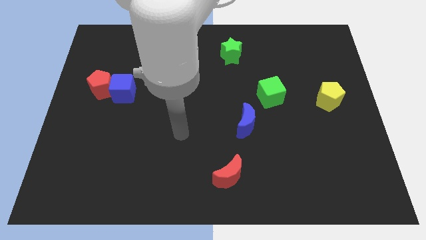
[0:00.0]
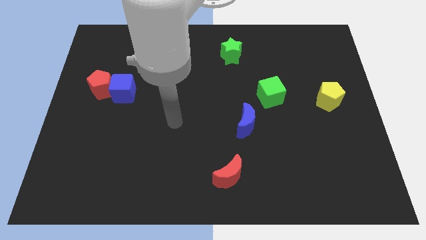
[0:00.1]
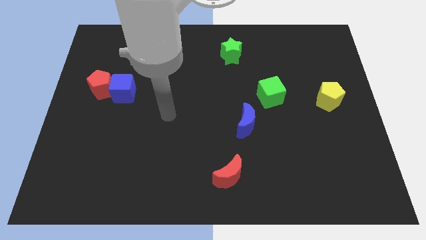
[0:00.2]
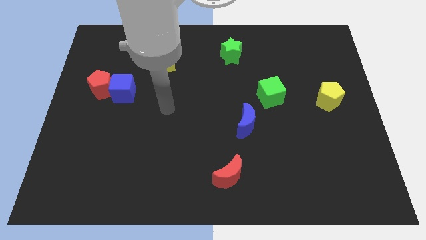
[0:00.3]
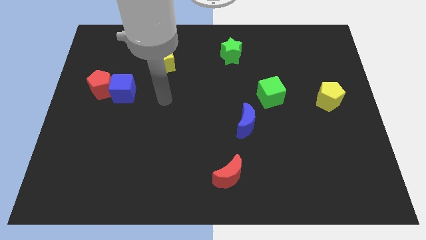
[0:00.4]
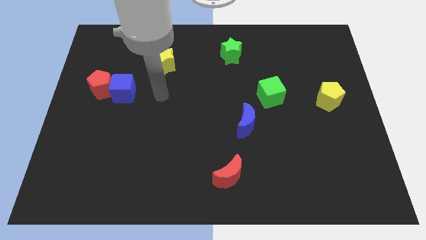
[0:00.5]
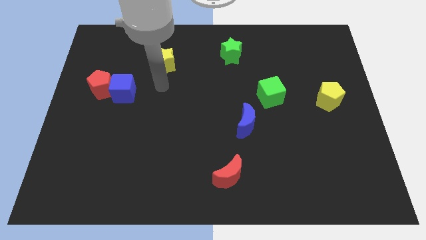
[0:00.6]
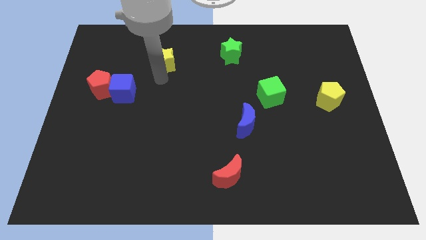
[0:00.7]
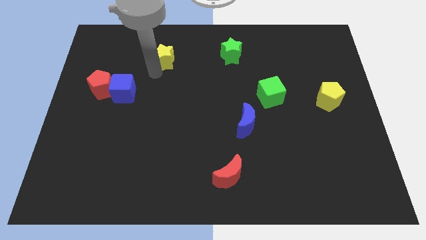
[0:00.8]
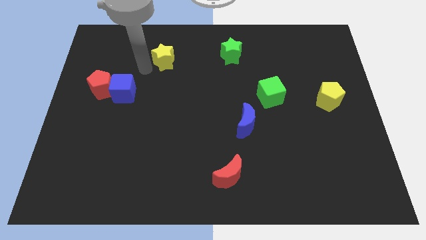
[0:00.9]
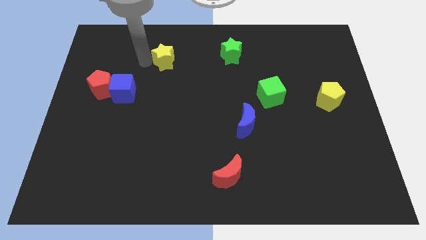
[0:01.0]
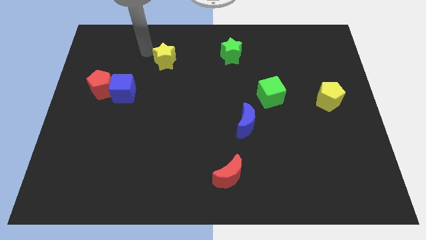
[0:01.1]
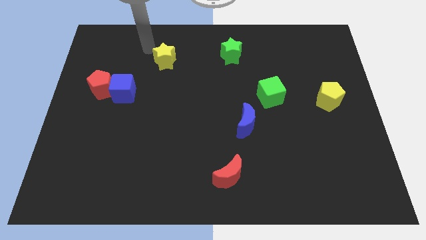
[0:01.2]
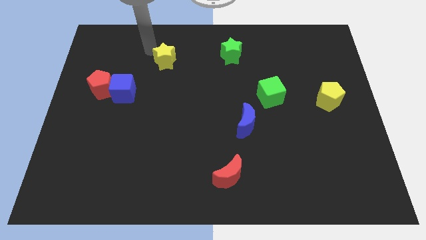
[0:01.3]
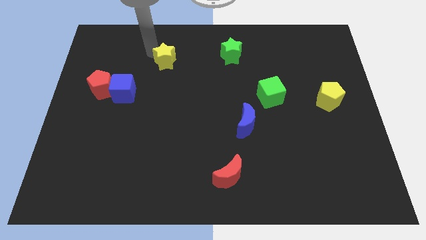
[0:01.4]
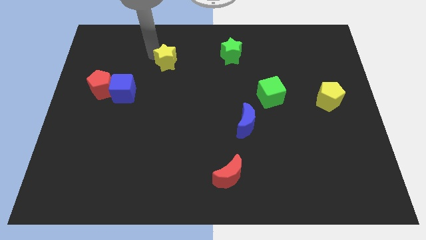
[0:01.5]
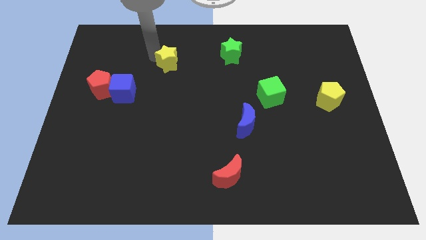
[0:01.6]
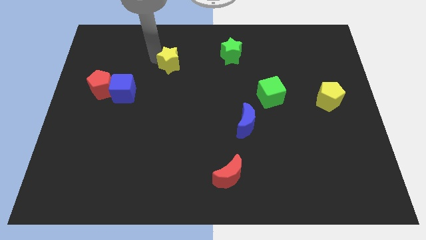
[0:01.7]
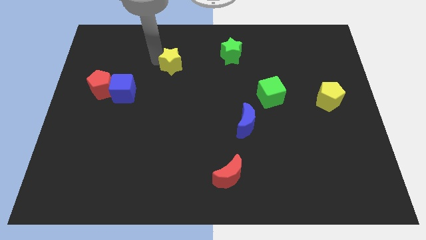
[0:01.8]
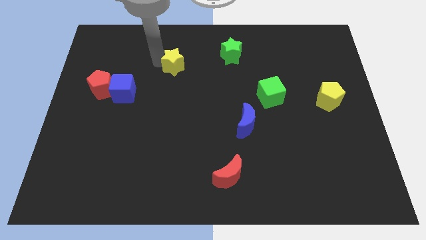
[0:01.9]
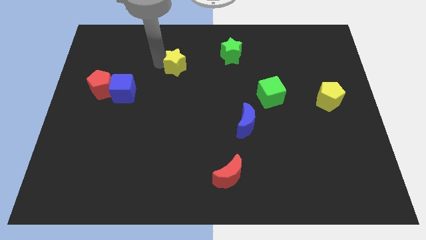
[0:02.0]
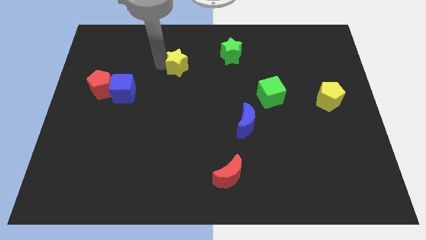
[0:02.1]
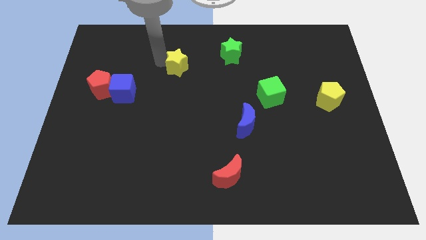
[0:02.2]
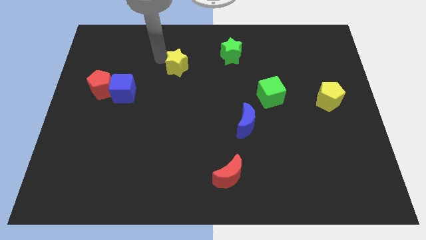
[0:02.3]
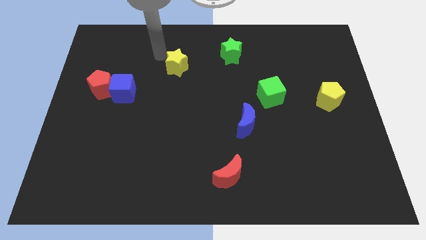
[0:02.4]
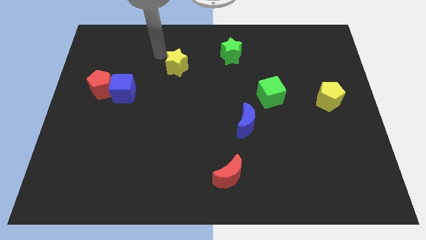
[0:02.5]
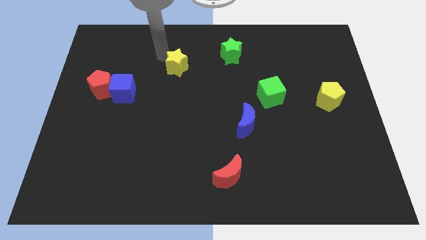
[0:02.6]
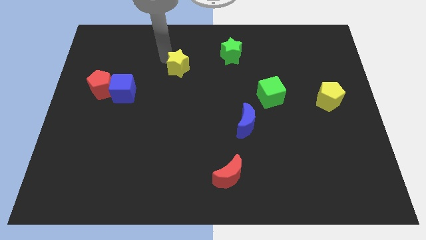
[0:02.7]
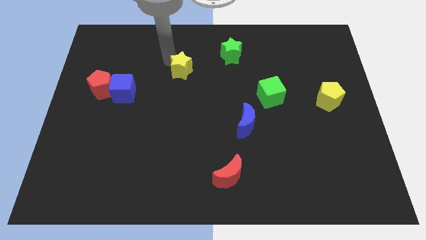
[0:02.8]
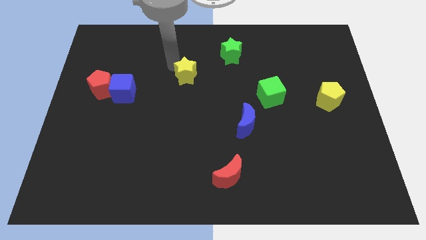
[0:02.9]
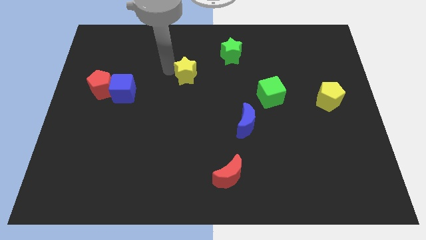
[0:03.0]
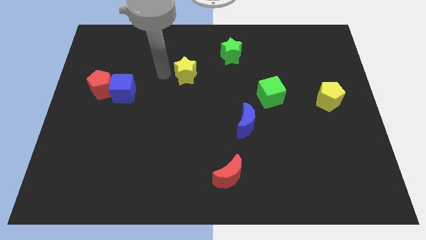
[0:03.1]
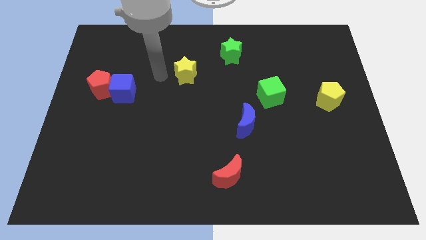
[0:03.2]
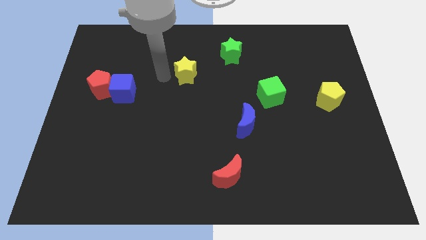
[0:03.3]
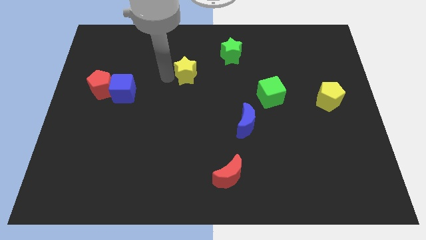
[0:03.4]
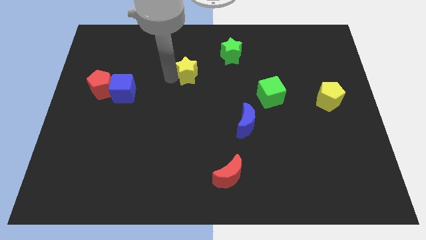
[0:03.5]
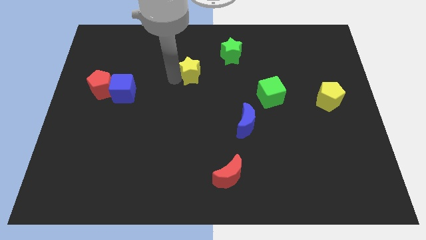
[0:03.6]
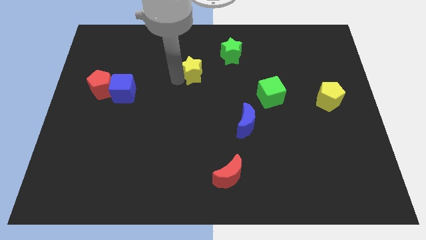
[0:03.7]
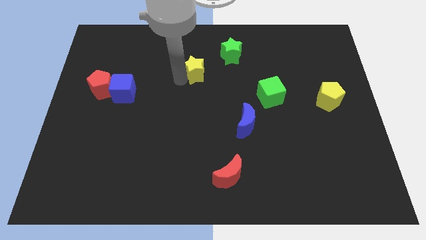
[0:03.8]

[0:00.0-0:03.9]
slightly push the yellow star to the right

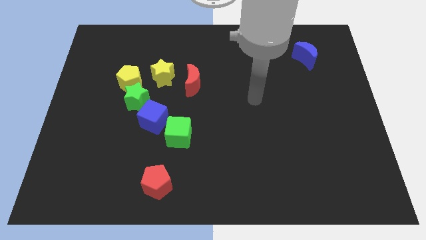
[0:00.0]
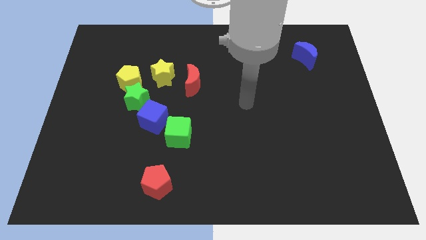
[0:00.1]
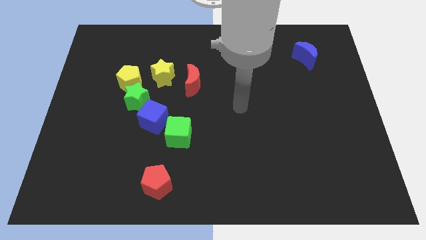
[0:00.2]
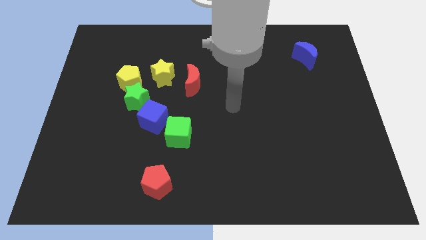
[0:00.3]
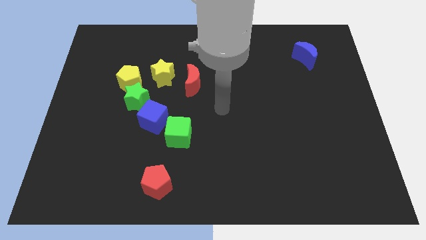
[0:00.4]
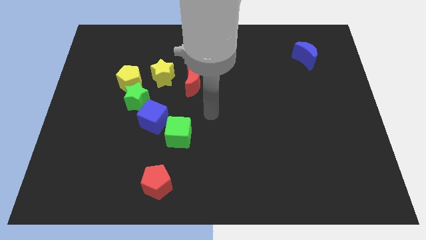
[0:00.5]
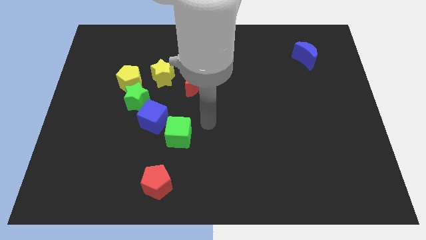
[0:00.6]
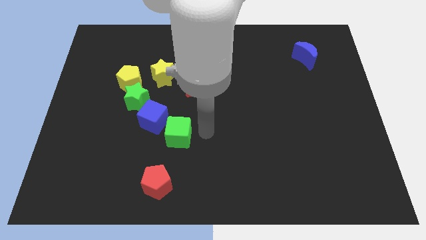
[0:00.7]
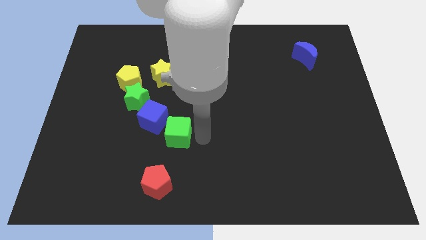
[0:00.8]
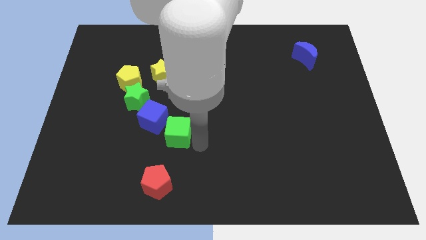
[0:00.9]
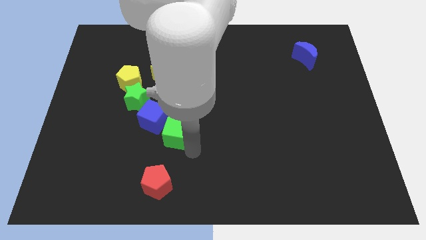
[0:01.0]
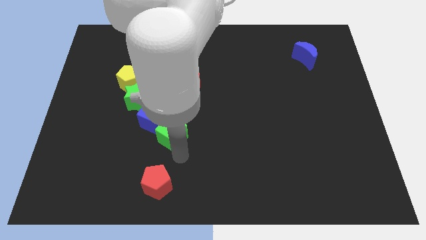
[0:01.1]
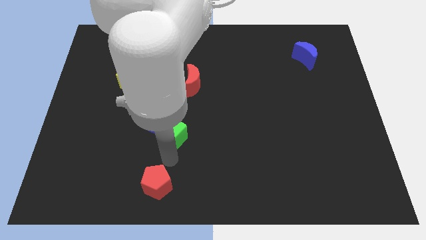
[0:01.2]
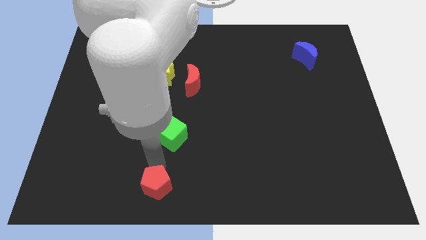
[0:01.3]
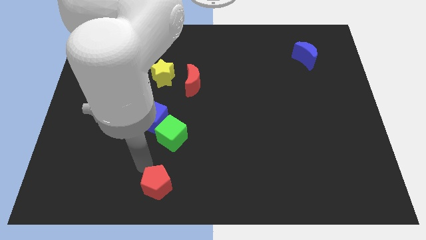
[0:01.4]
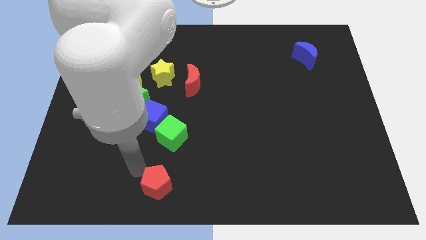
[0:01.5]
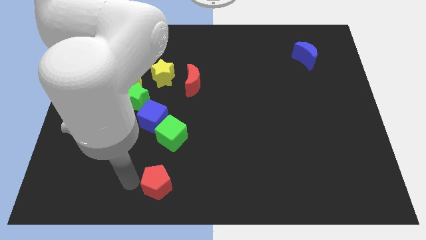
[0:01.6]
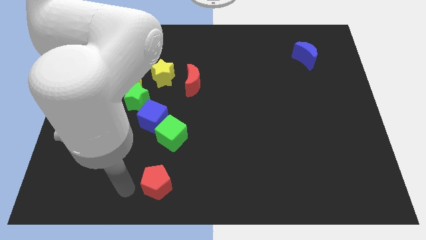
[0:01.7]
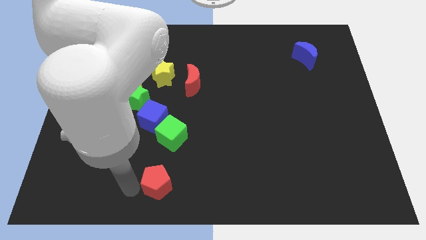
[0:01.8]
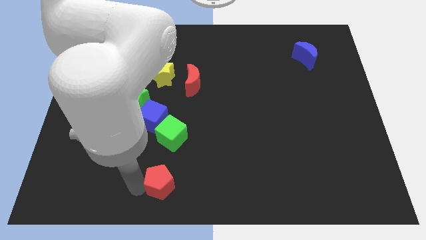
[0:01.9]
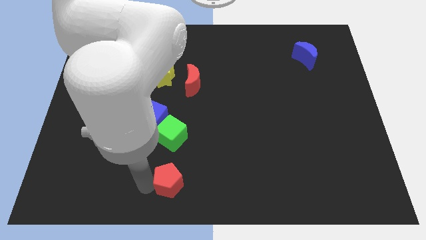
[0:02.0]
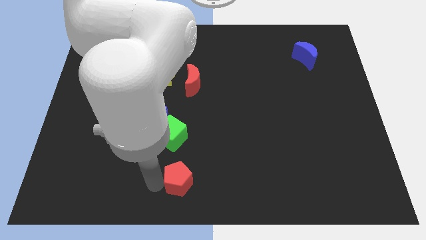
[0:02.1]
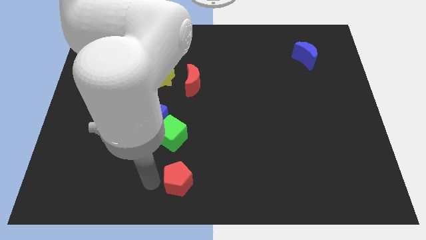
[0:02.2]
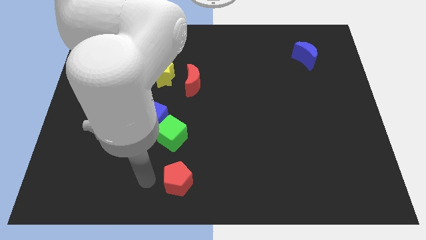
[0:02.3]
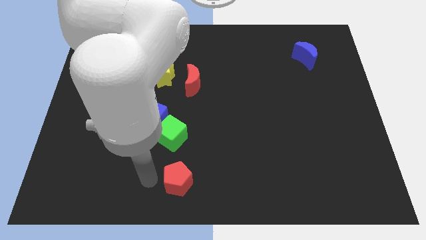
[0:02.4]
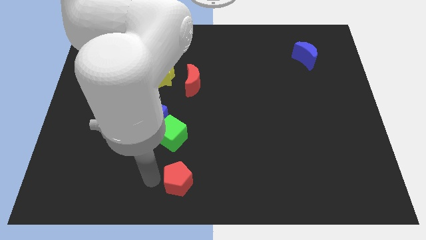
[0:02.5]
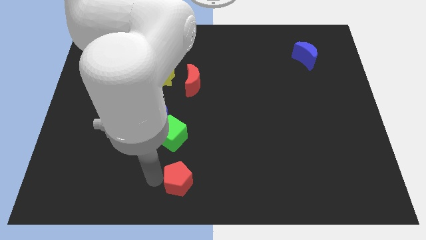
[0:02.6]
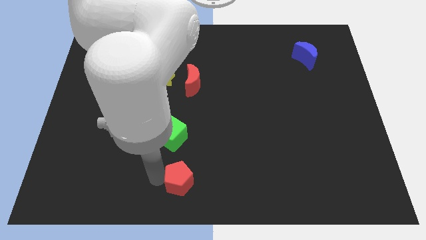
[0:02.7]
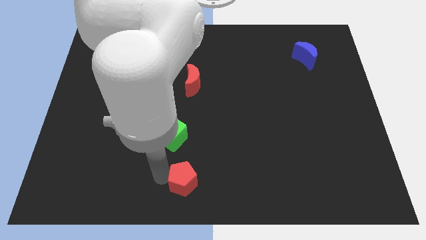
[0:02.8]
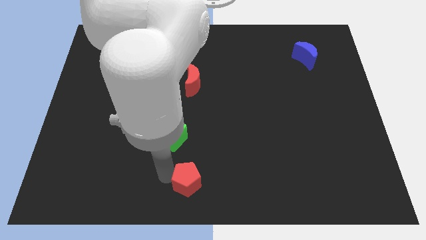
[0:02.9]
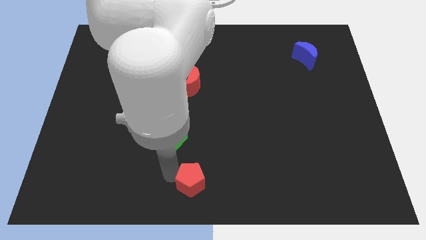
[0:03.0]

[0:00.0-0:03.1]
slightly push the red pentagon to the right

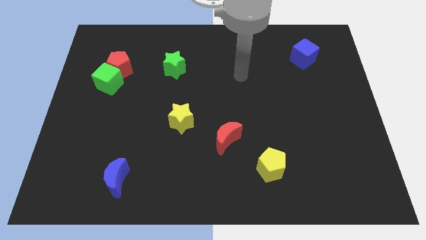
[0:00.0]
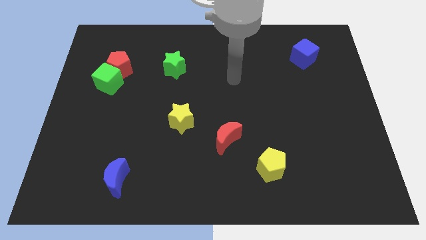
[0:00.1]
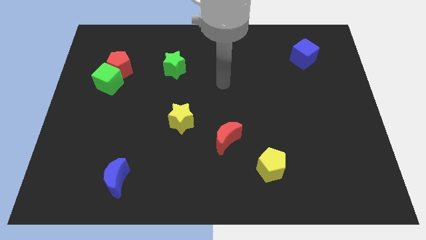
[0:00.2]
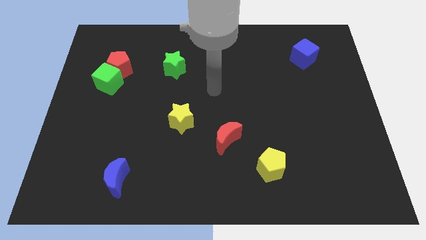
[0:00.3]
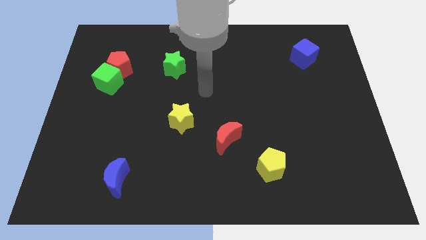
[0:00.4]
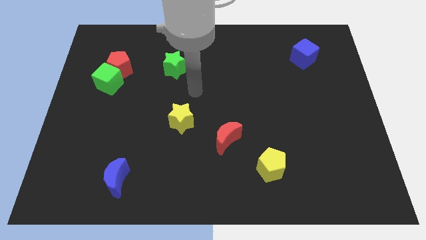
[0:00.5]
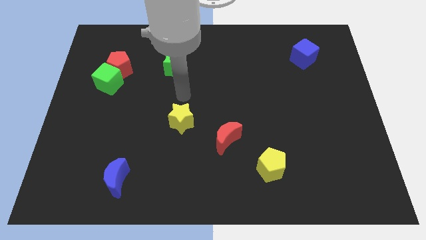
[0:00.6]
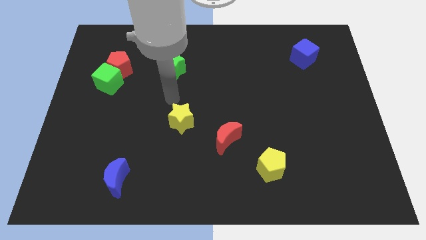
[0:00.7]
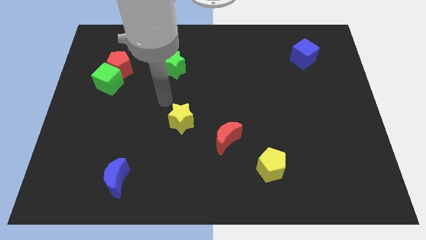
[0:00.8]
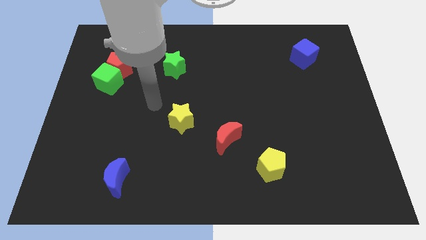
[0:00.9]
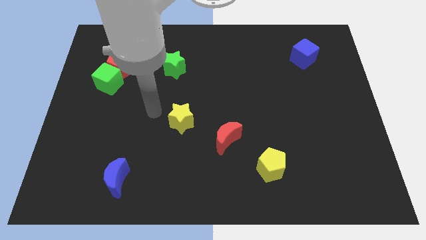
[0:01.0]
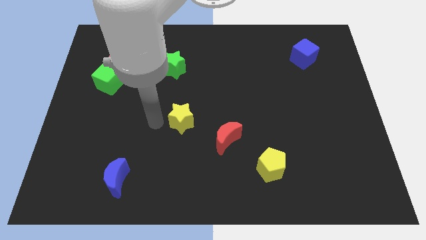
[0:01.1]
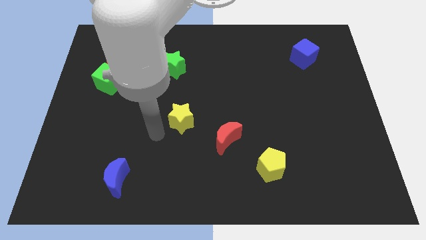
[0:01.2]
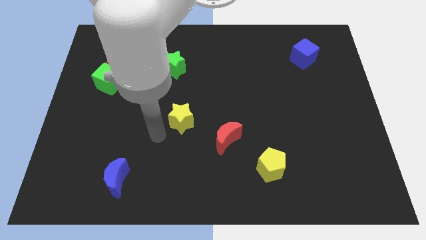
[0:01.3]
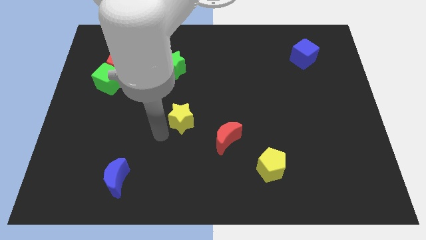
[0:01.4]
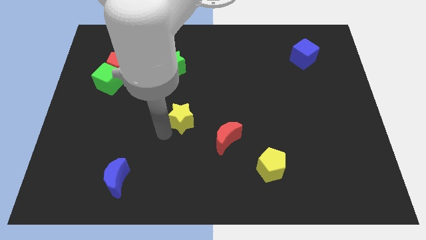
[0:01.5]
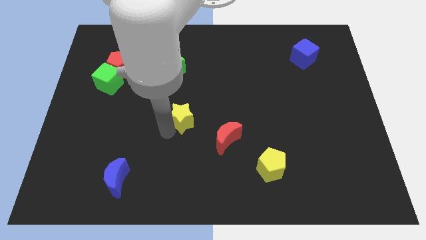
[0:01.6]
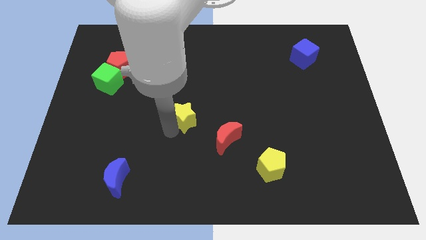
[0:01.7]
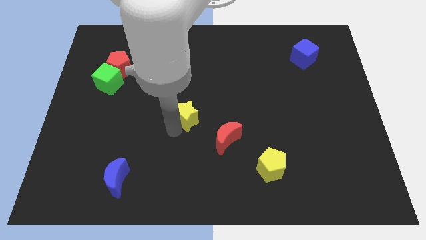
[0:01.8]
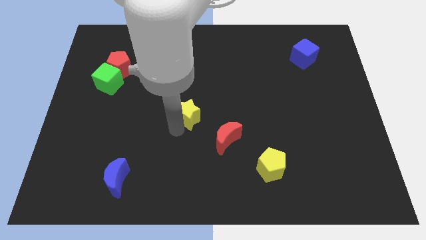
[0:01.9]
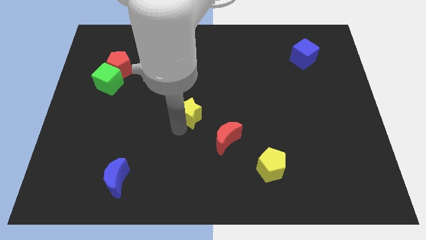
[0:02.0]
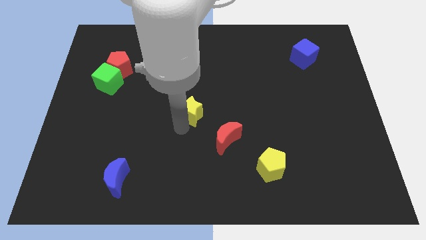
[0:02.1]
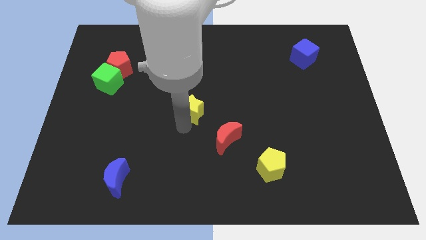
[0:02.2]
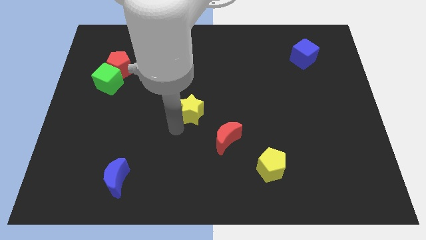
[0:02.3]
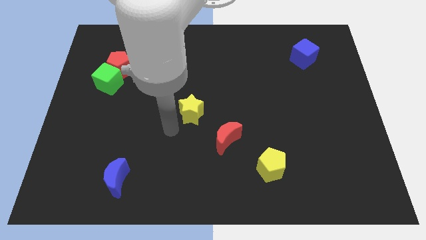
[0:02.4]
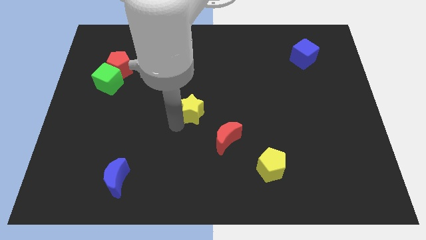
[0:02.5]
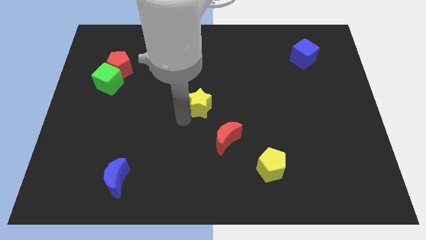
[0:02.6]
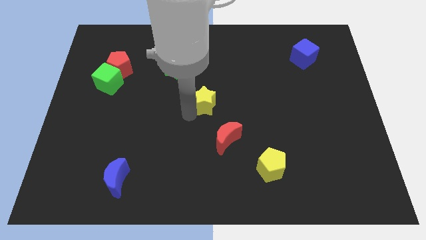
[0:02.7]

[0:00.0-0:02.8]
move the yellow star a little bit up and to the right diagonally
